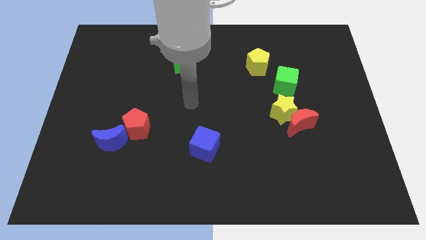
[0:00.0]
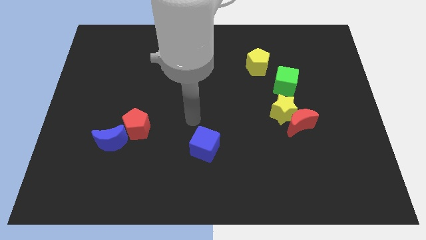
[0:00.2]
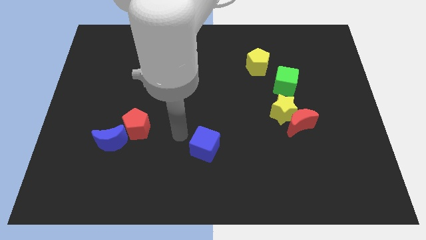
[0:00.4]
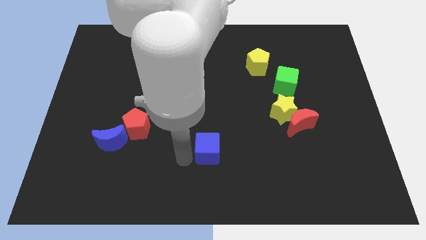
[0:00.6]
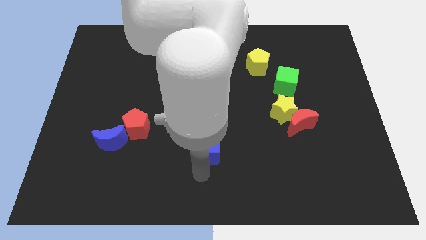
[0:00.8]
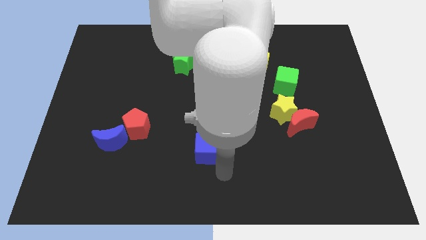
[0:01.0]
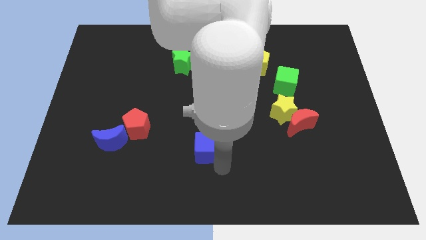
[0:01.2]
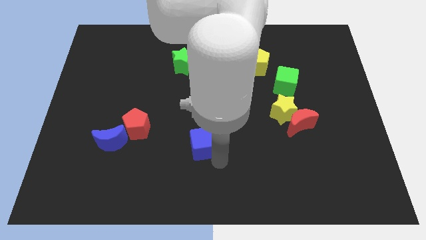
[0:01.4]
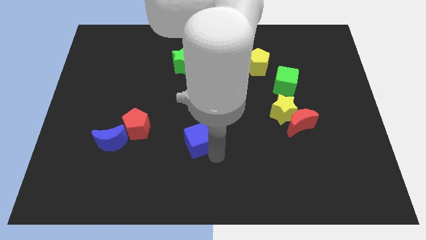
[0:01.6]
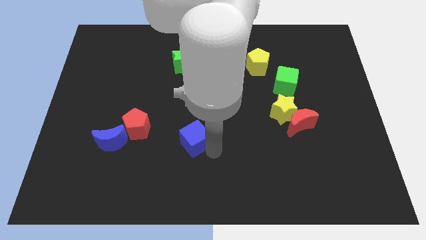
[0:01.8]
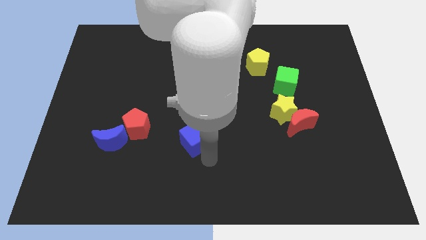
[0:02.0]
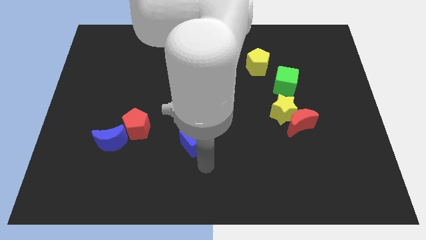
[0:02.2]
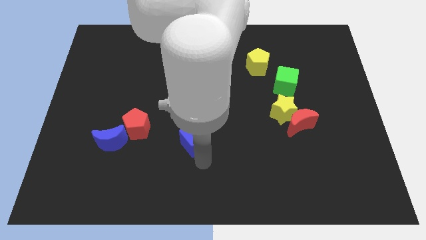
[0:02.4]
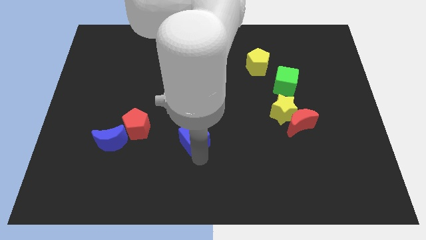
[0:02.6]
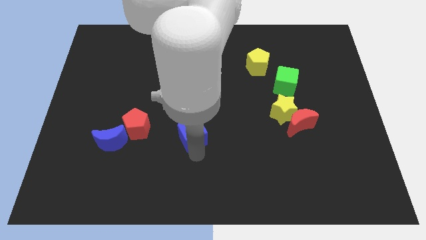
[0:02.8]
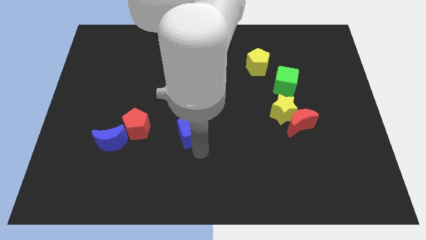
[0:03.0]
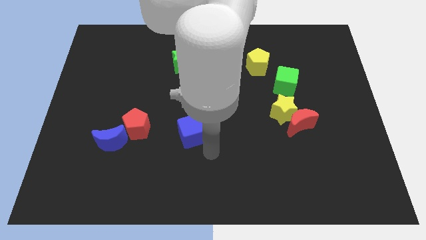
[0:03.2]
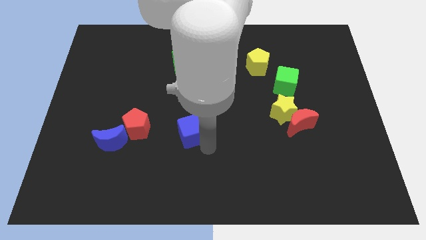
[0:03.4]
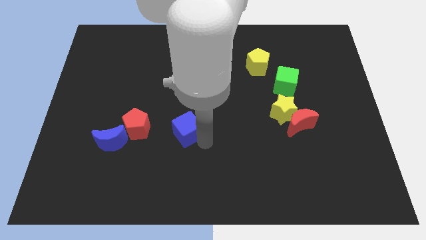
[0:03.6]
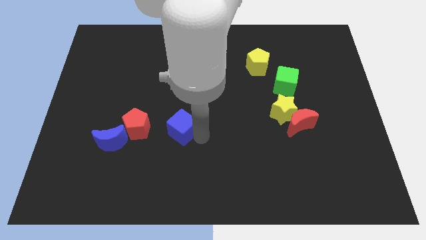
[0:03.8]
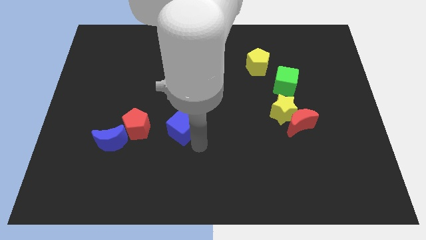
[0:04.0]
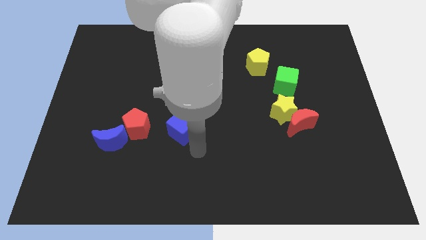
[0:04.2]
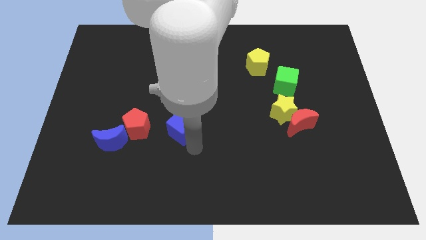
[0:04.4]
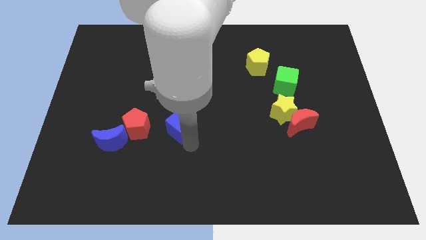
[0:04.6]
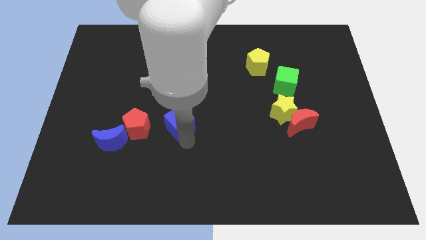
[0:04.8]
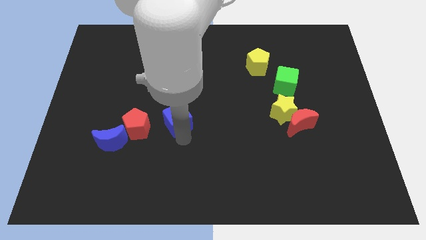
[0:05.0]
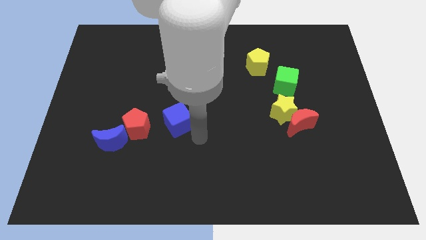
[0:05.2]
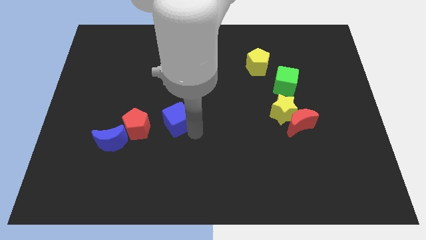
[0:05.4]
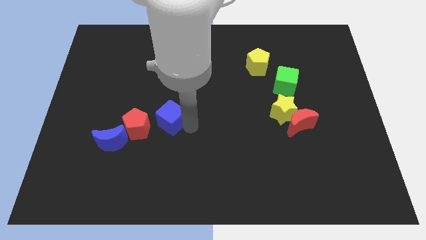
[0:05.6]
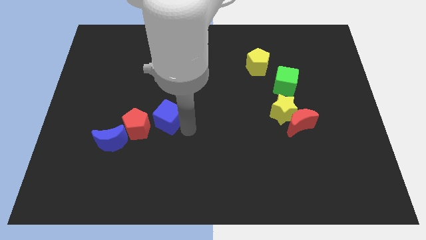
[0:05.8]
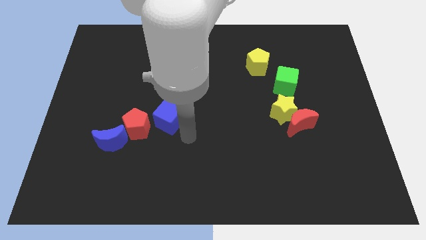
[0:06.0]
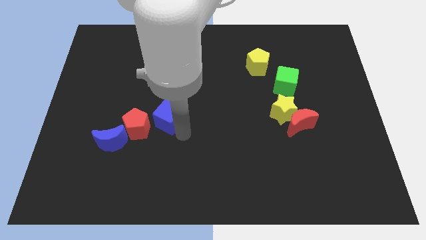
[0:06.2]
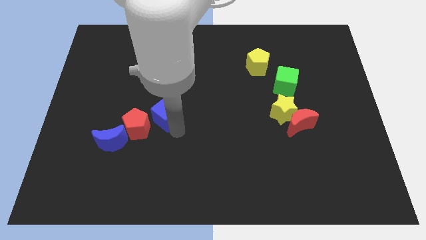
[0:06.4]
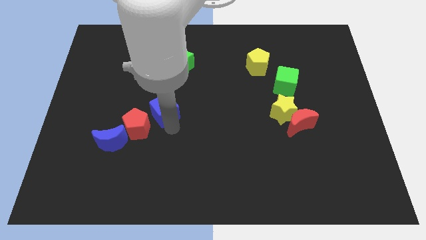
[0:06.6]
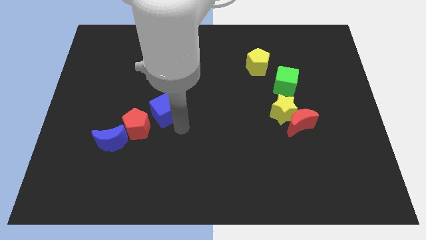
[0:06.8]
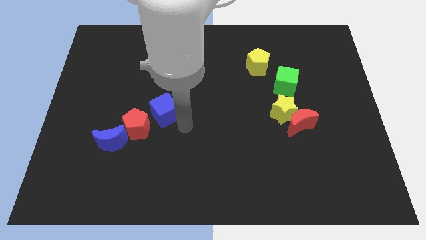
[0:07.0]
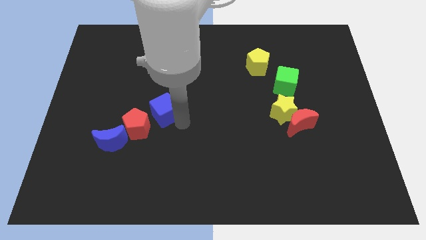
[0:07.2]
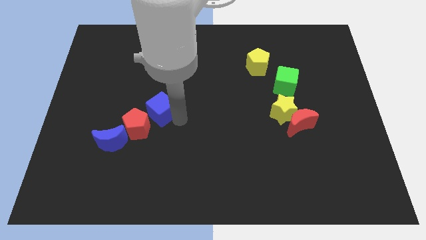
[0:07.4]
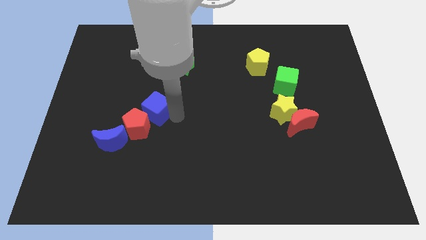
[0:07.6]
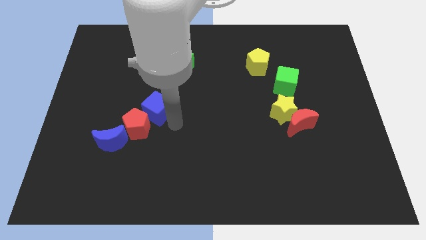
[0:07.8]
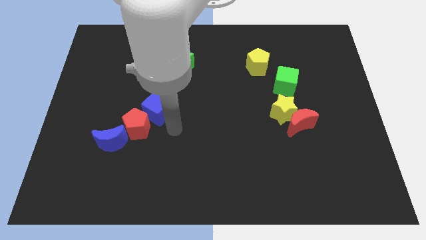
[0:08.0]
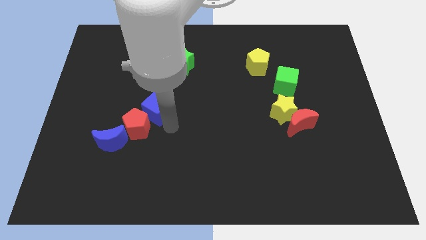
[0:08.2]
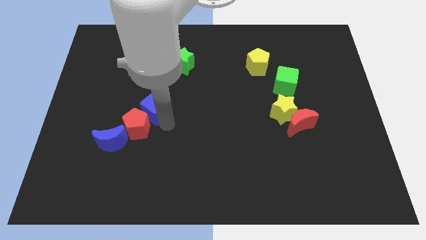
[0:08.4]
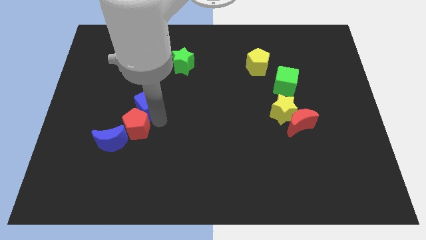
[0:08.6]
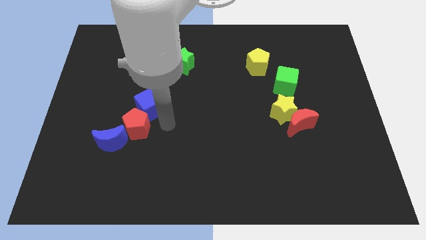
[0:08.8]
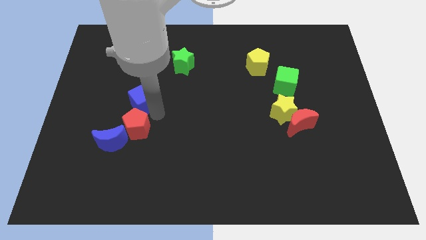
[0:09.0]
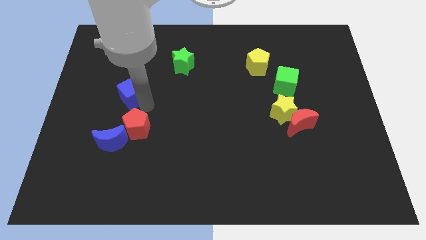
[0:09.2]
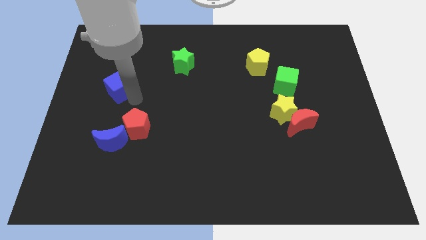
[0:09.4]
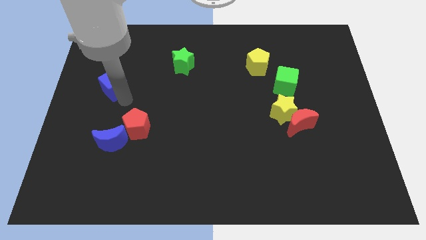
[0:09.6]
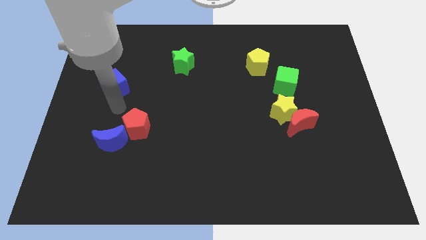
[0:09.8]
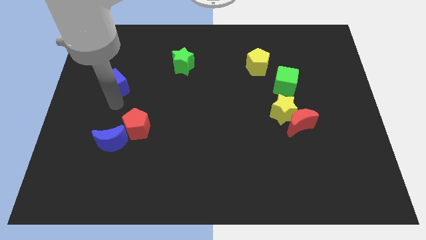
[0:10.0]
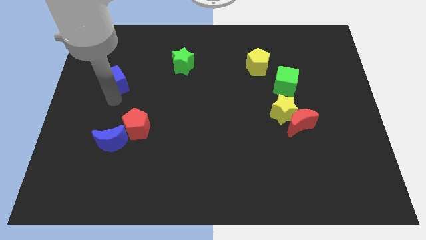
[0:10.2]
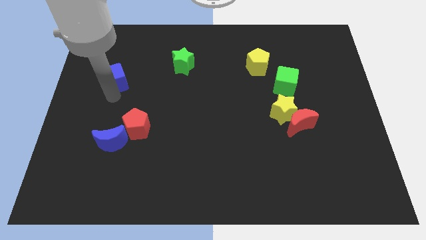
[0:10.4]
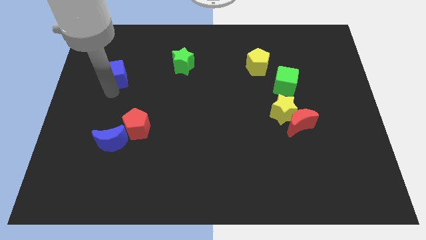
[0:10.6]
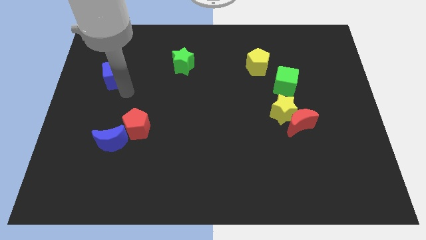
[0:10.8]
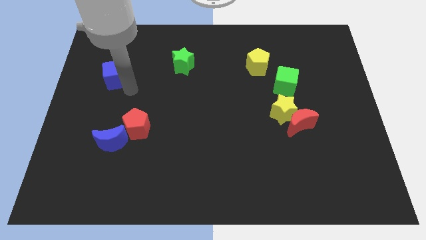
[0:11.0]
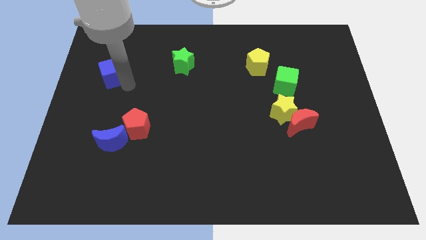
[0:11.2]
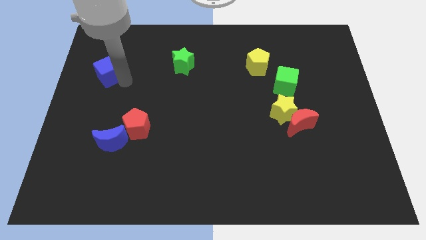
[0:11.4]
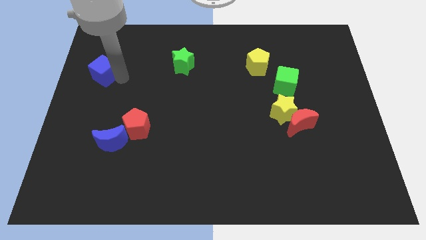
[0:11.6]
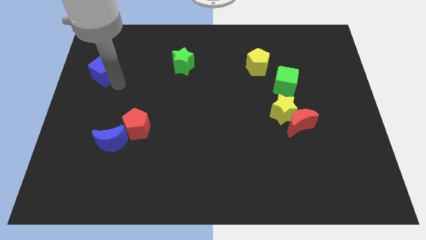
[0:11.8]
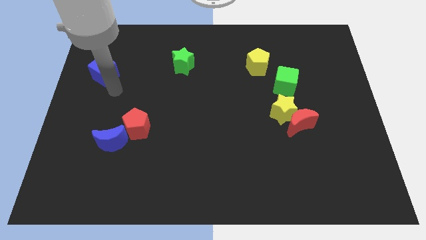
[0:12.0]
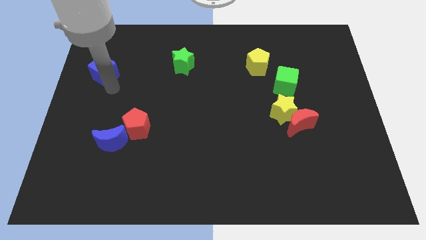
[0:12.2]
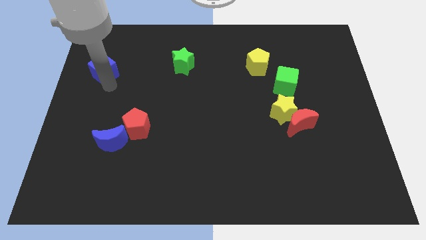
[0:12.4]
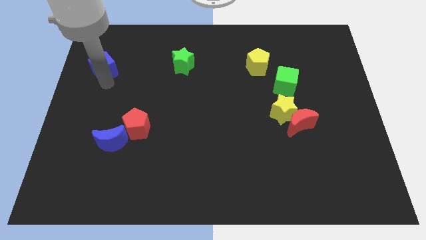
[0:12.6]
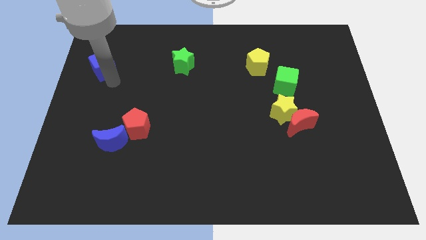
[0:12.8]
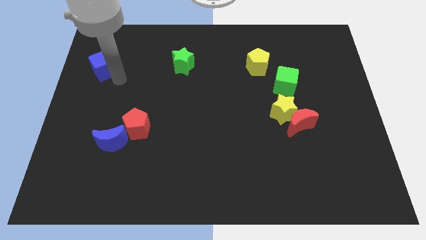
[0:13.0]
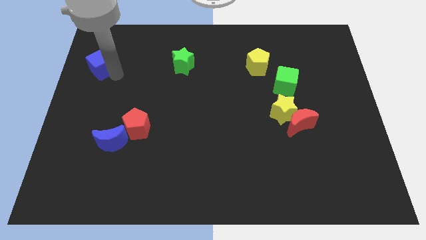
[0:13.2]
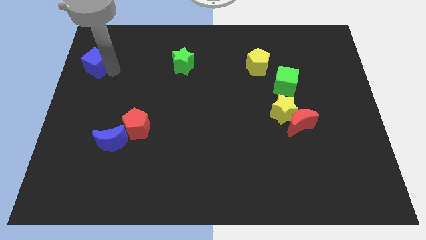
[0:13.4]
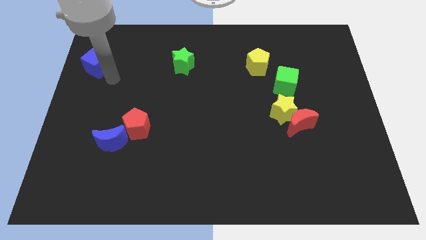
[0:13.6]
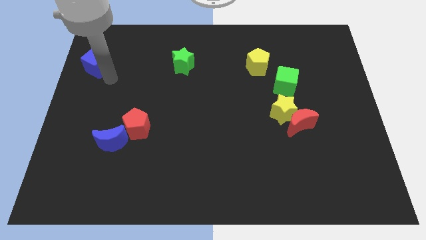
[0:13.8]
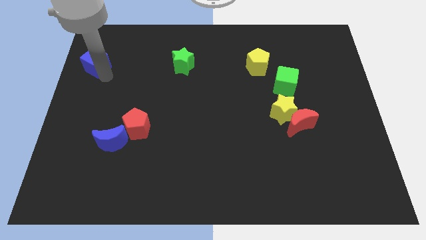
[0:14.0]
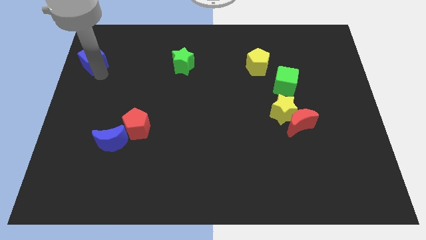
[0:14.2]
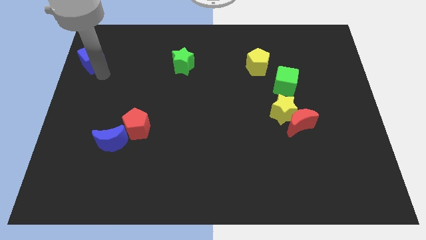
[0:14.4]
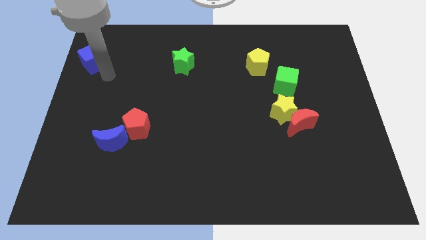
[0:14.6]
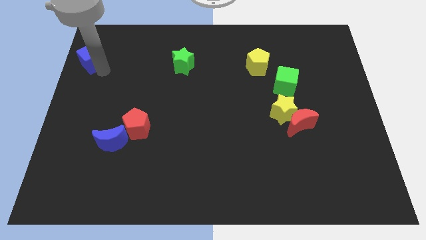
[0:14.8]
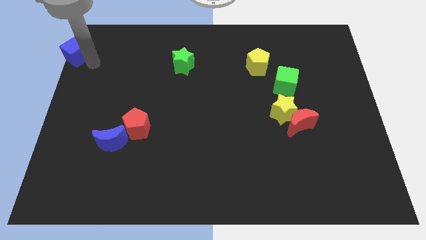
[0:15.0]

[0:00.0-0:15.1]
slide the blue cube to the top left corner
